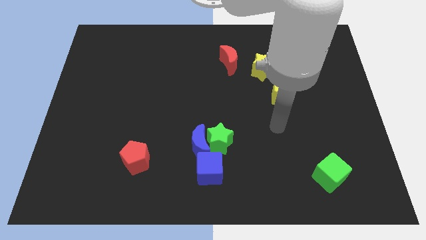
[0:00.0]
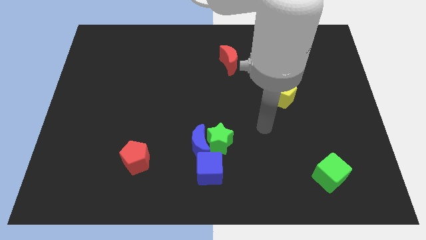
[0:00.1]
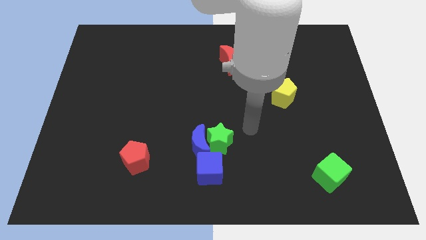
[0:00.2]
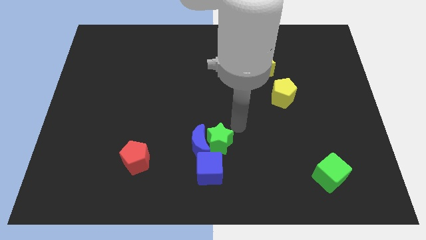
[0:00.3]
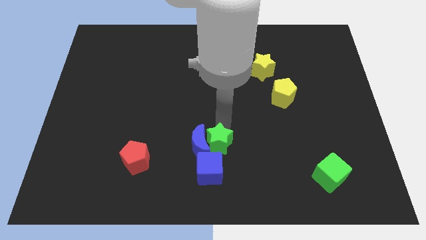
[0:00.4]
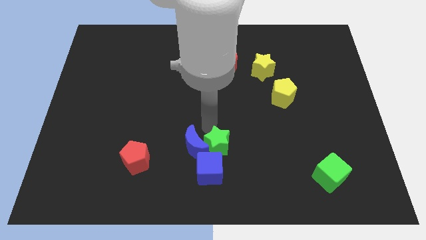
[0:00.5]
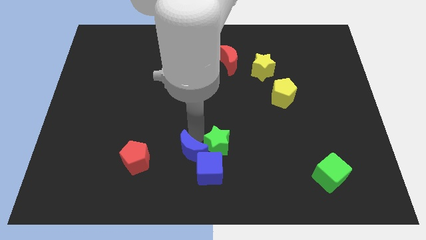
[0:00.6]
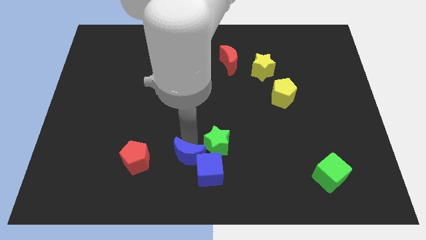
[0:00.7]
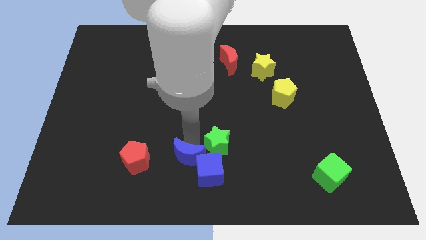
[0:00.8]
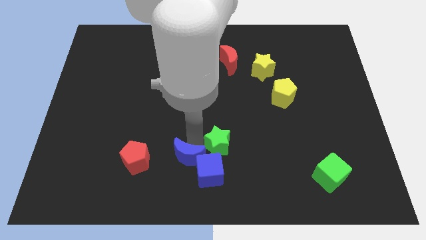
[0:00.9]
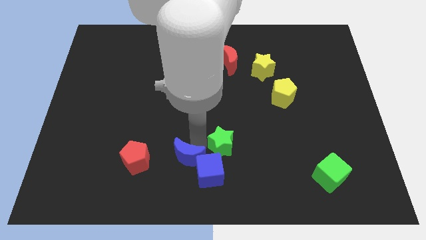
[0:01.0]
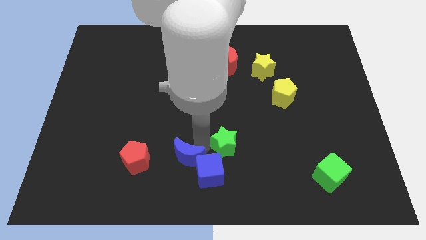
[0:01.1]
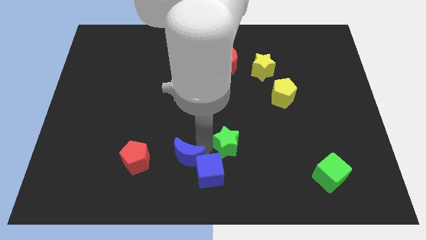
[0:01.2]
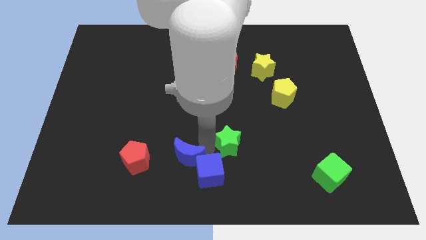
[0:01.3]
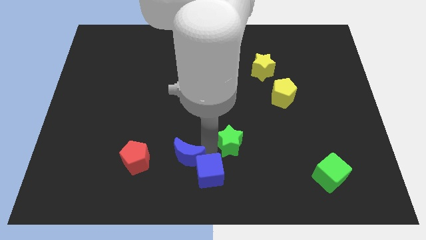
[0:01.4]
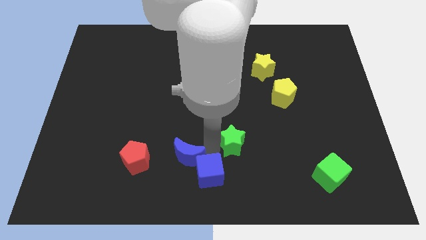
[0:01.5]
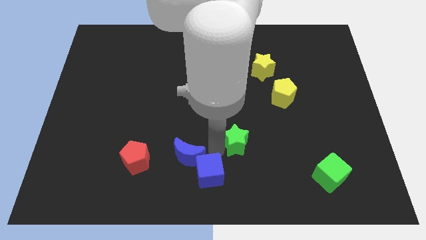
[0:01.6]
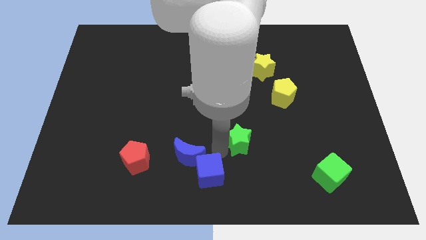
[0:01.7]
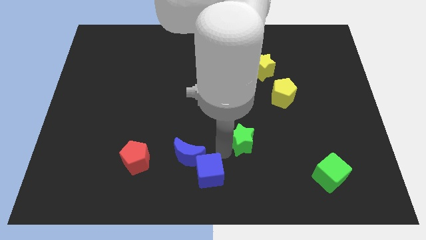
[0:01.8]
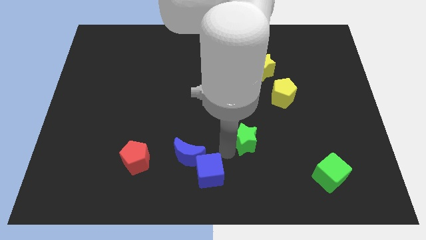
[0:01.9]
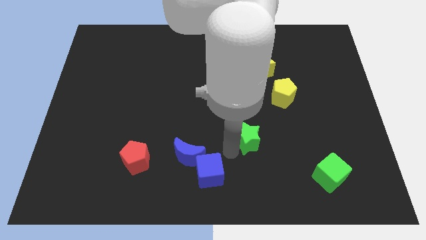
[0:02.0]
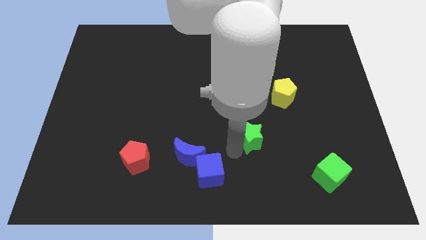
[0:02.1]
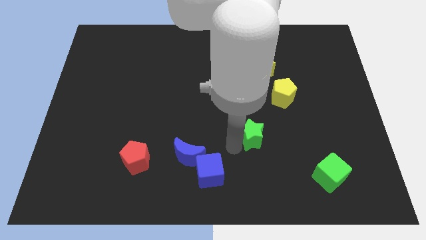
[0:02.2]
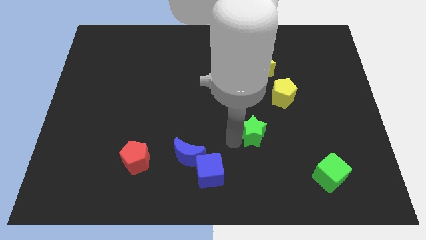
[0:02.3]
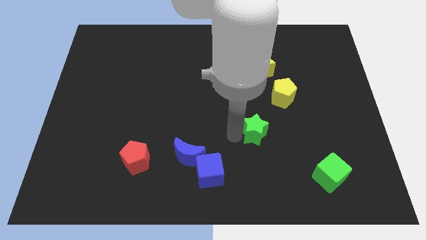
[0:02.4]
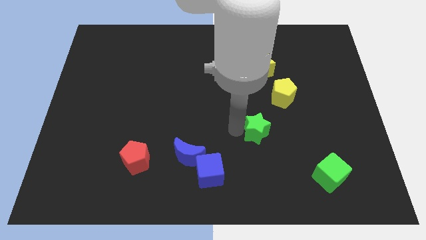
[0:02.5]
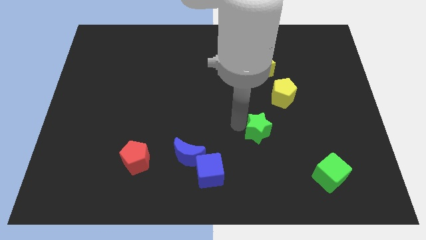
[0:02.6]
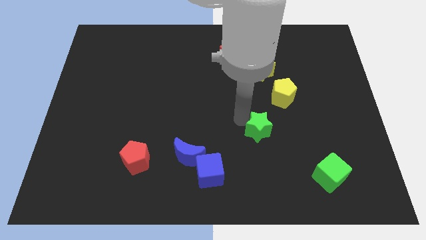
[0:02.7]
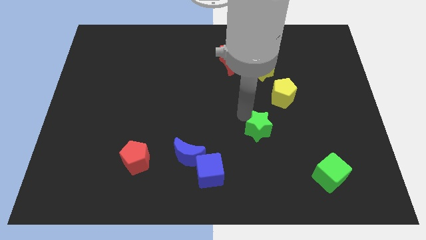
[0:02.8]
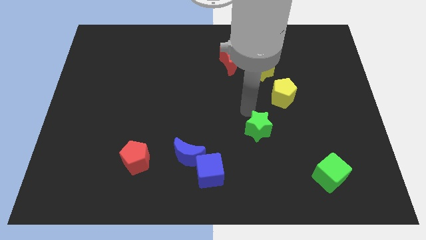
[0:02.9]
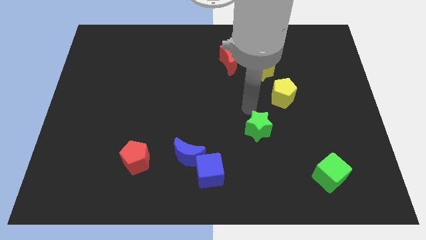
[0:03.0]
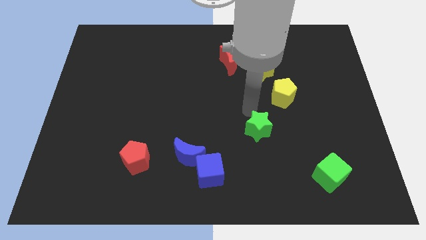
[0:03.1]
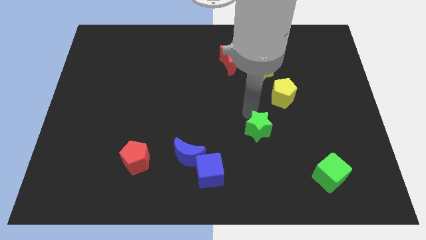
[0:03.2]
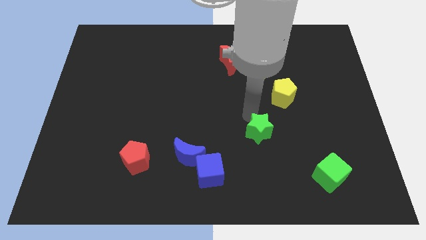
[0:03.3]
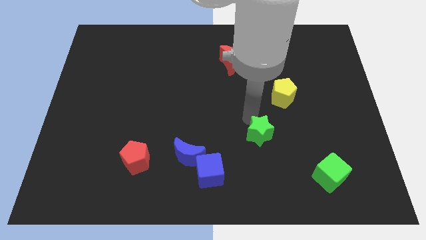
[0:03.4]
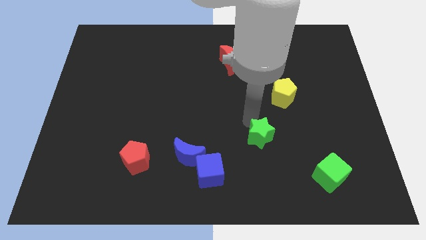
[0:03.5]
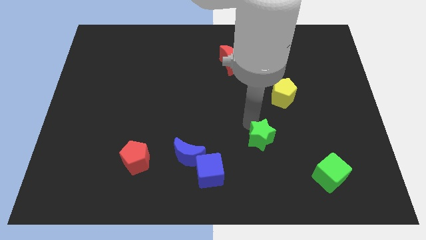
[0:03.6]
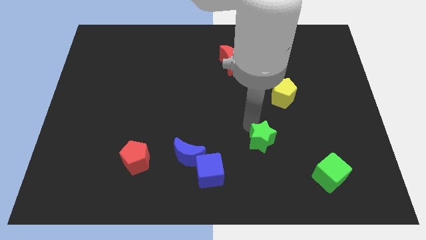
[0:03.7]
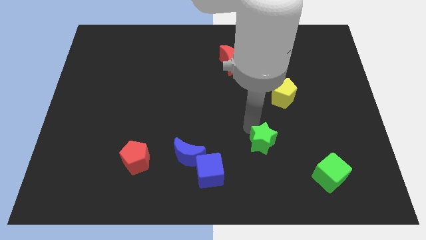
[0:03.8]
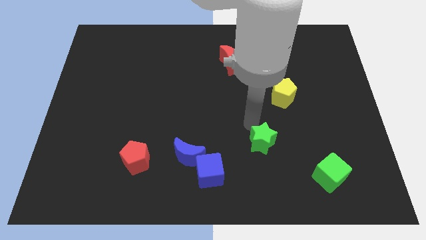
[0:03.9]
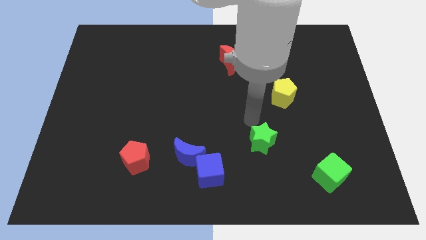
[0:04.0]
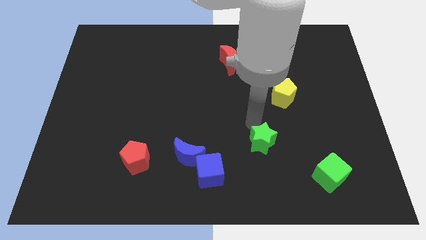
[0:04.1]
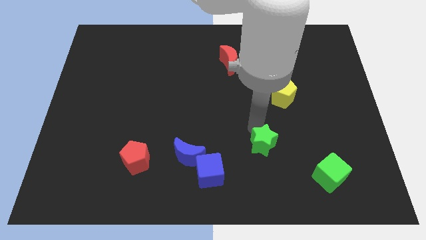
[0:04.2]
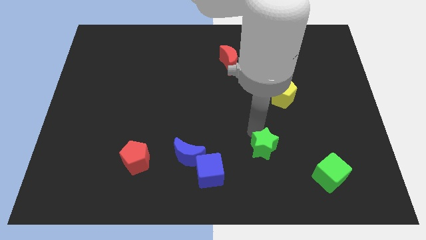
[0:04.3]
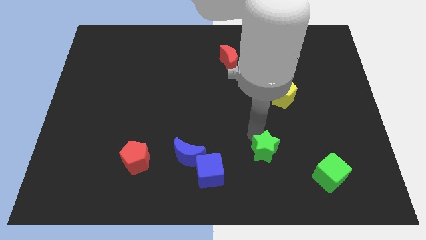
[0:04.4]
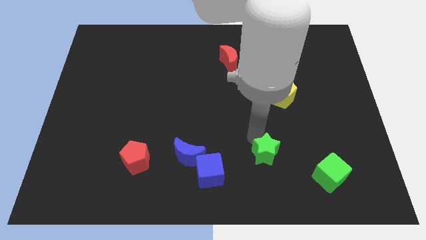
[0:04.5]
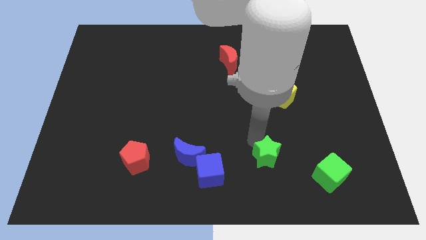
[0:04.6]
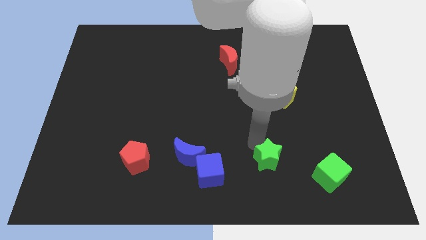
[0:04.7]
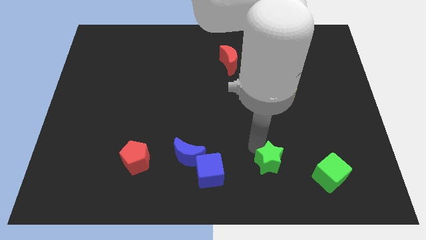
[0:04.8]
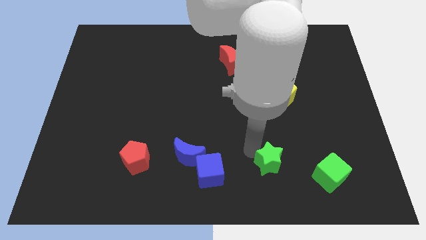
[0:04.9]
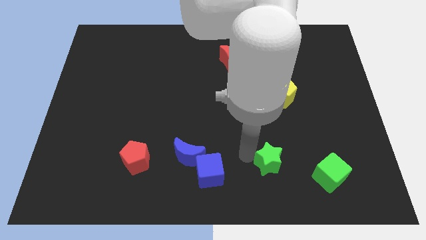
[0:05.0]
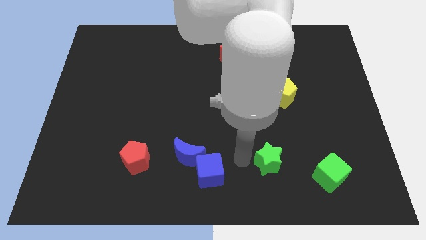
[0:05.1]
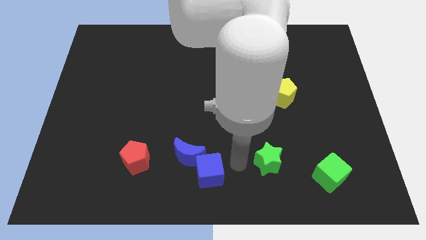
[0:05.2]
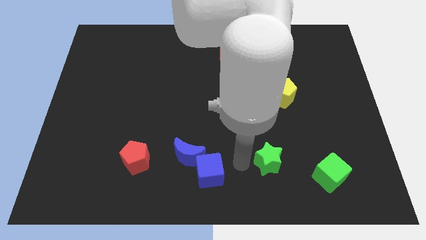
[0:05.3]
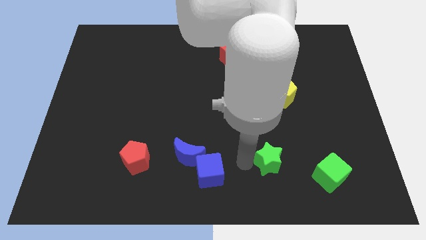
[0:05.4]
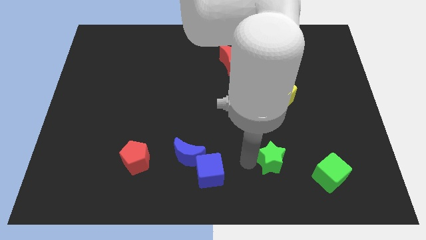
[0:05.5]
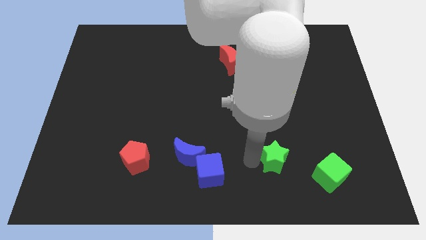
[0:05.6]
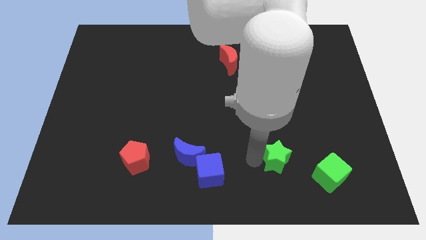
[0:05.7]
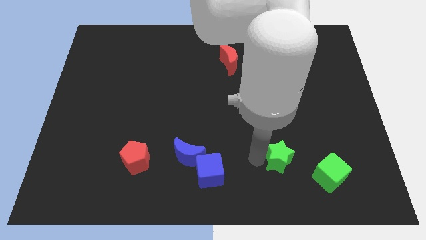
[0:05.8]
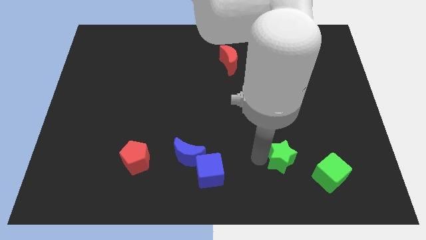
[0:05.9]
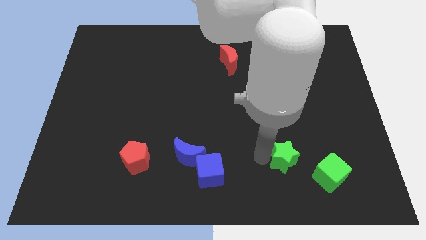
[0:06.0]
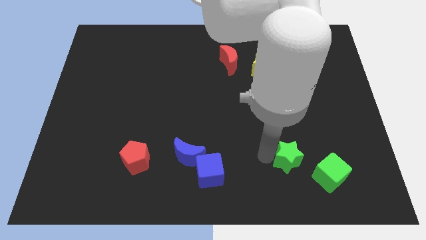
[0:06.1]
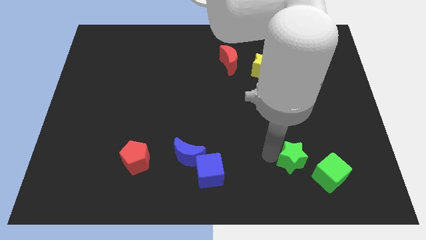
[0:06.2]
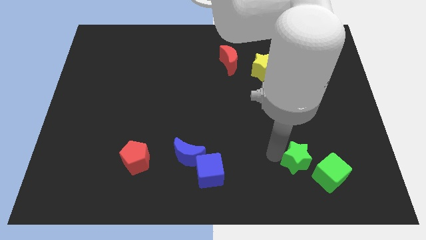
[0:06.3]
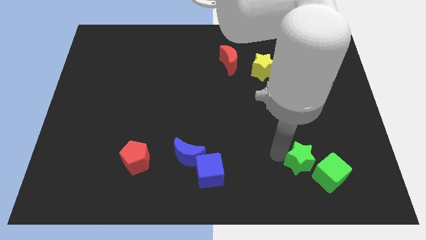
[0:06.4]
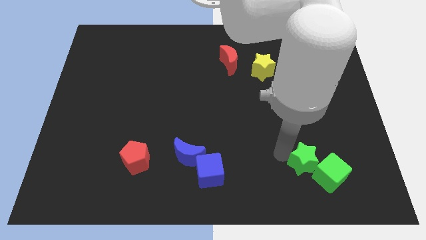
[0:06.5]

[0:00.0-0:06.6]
push the green star to the green cube

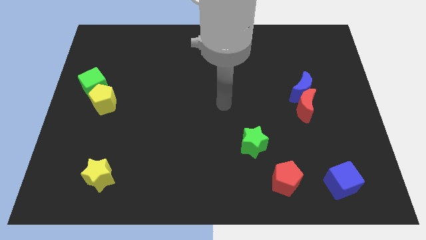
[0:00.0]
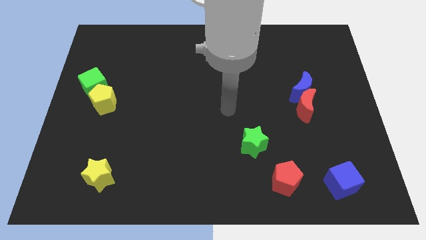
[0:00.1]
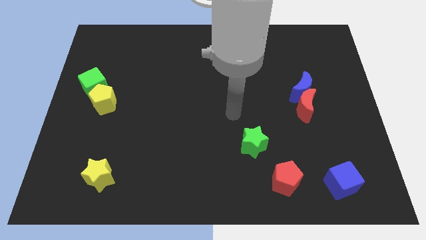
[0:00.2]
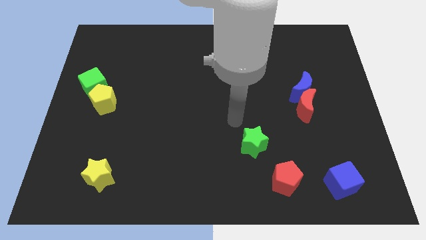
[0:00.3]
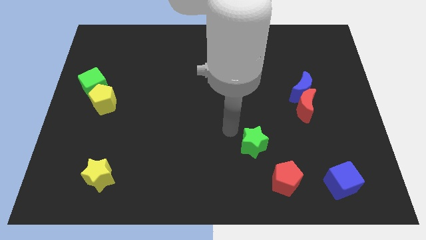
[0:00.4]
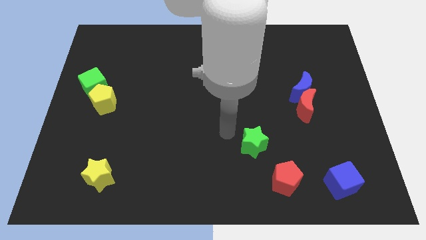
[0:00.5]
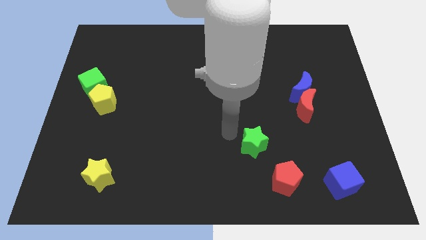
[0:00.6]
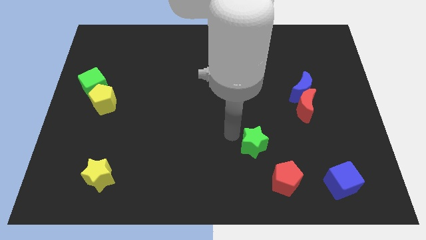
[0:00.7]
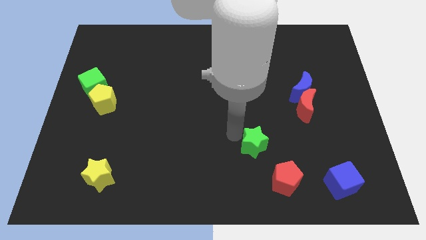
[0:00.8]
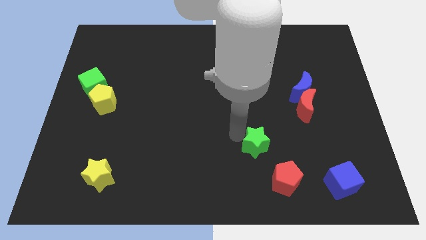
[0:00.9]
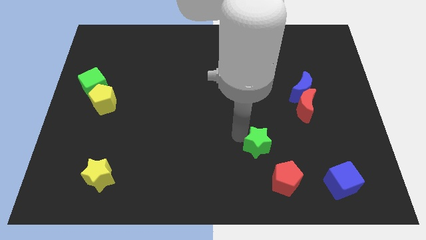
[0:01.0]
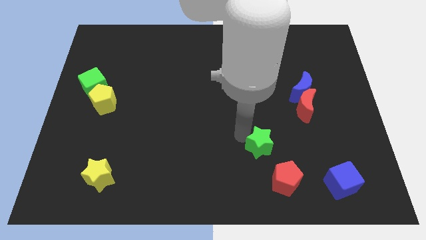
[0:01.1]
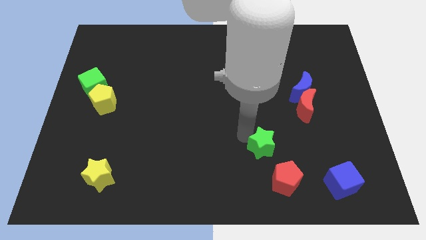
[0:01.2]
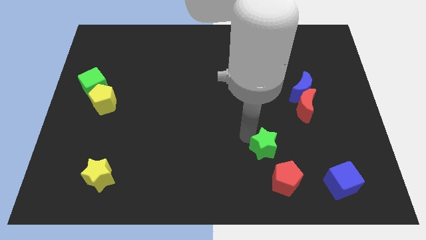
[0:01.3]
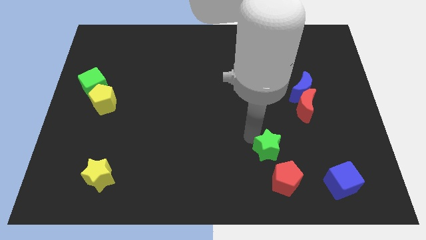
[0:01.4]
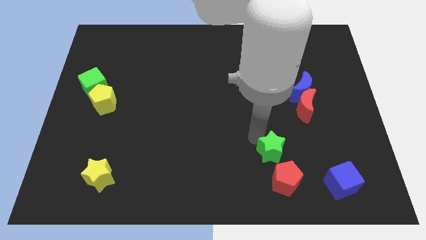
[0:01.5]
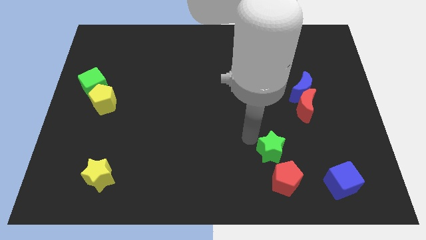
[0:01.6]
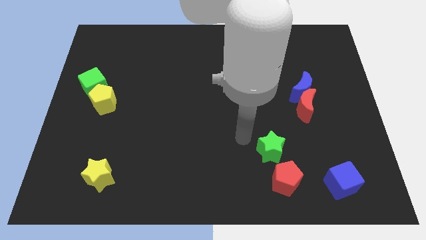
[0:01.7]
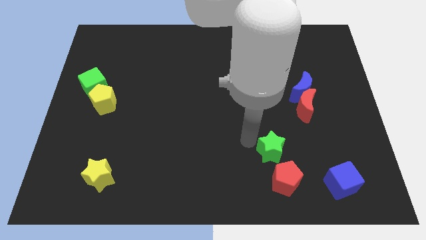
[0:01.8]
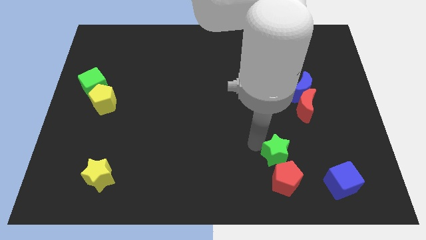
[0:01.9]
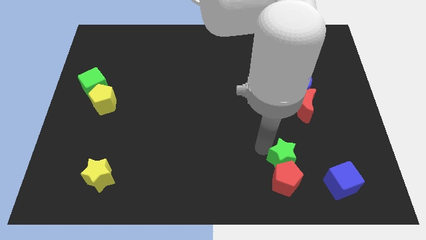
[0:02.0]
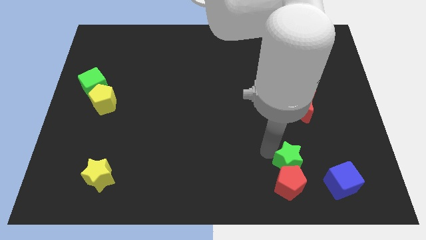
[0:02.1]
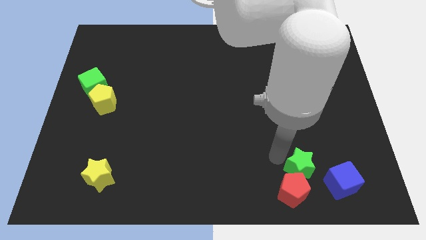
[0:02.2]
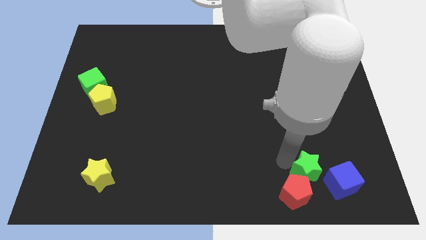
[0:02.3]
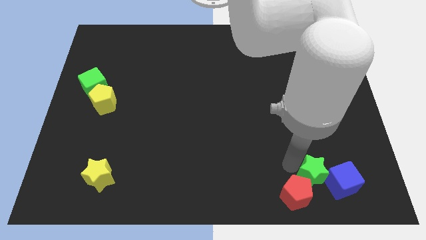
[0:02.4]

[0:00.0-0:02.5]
push the green star close to the blue cube
